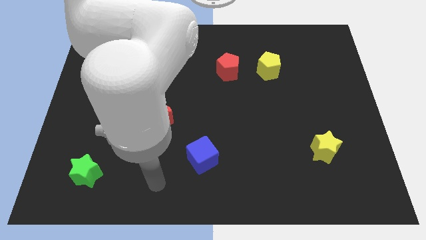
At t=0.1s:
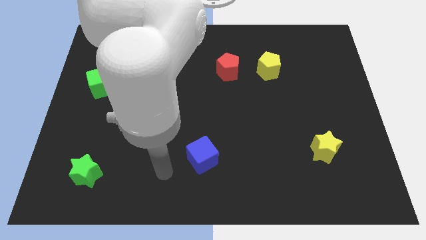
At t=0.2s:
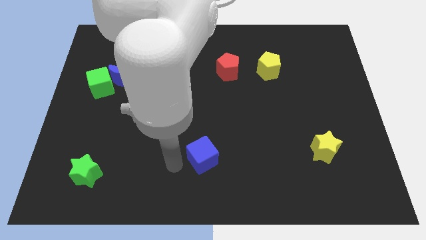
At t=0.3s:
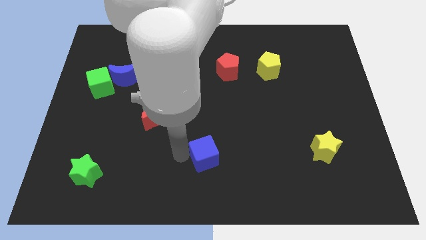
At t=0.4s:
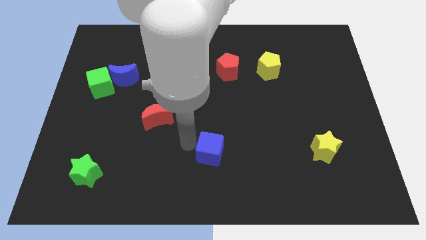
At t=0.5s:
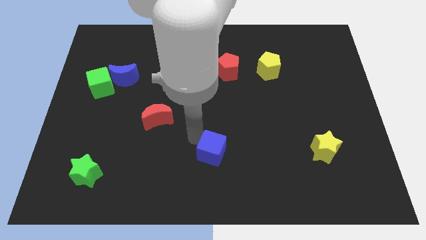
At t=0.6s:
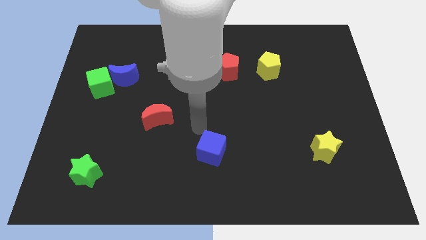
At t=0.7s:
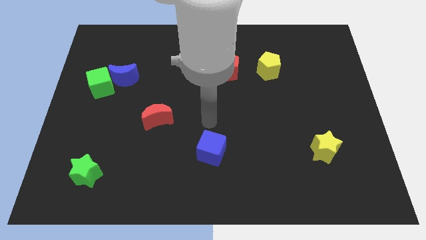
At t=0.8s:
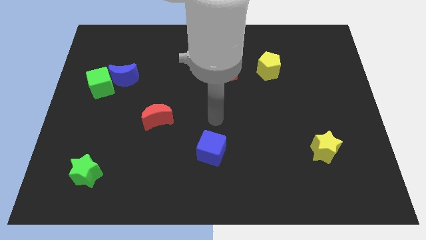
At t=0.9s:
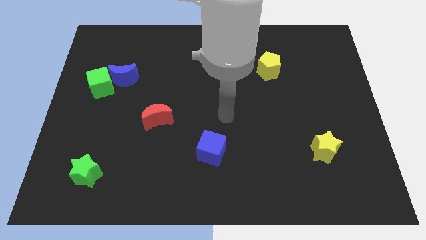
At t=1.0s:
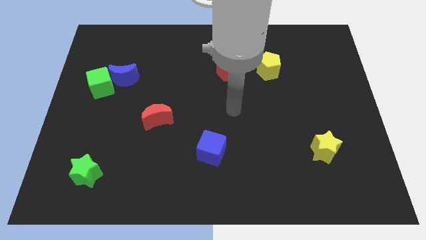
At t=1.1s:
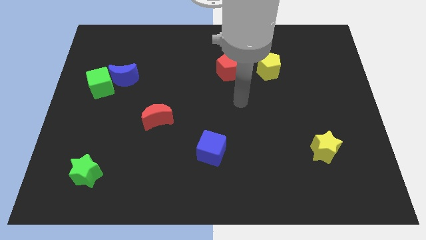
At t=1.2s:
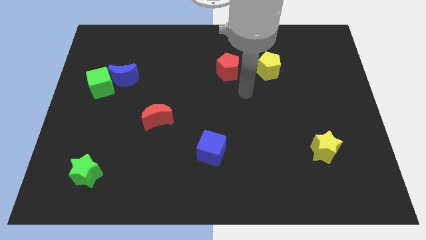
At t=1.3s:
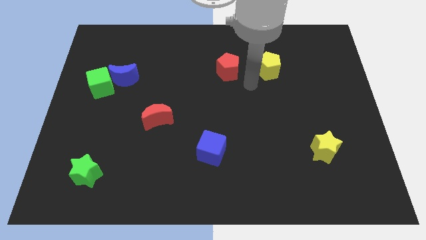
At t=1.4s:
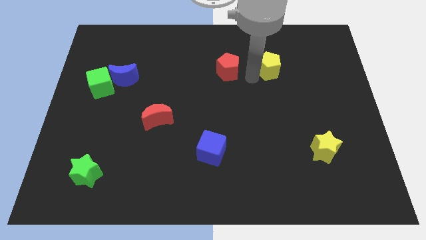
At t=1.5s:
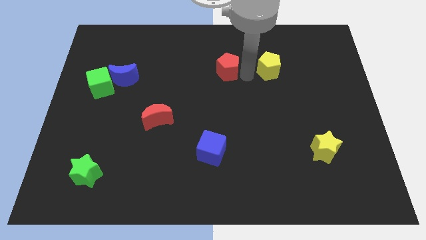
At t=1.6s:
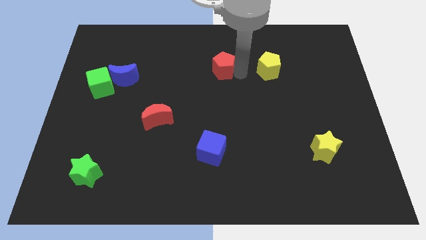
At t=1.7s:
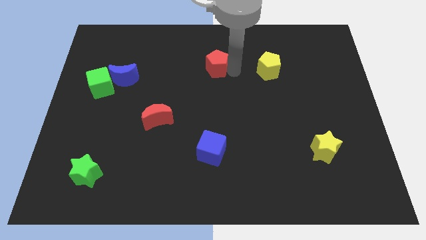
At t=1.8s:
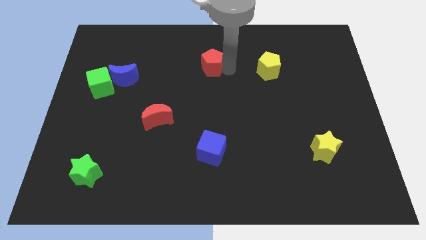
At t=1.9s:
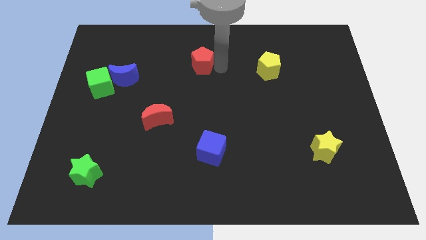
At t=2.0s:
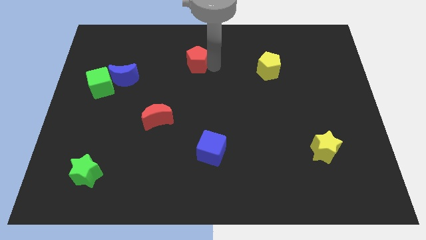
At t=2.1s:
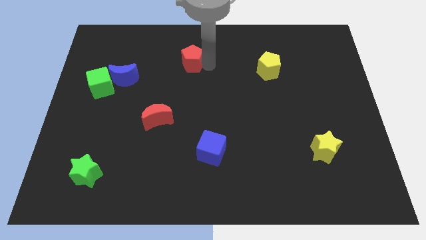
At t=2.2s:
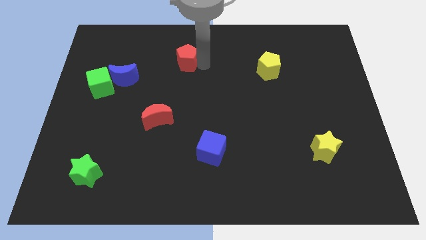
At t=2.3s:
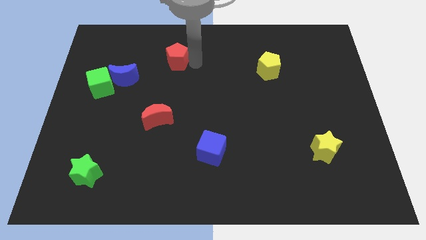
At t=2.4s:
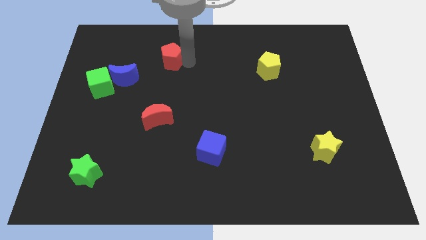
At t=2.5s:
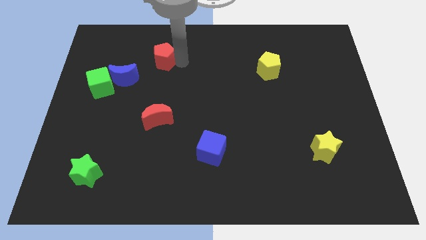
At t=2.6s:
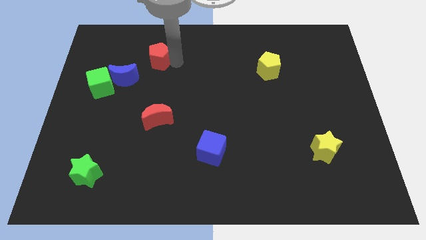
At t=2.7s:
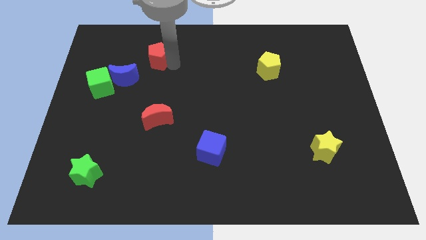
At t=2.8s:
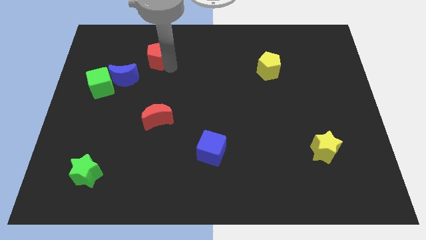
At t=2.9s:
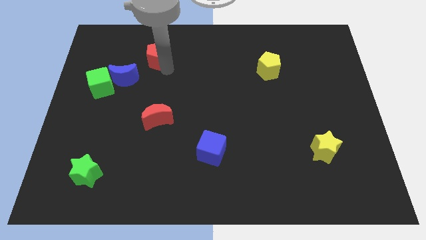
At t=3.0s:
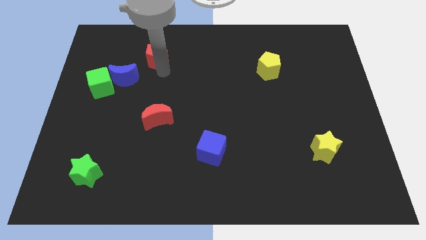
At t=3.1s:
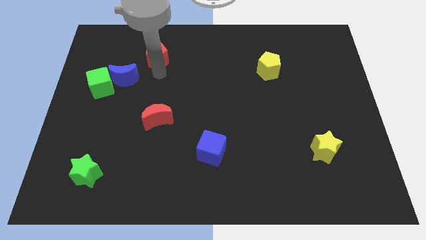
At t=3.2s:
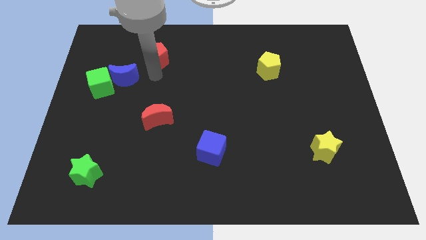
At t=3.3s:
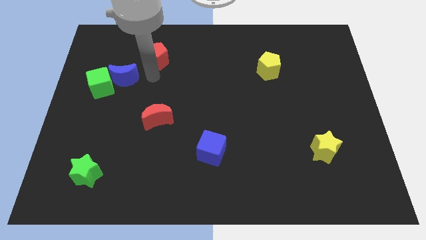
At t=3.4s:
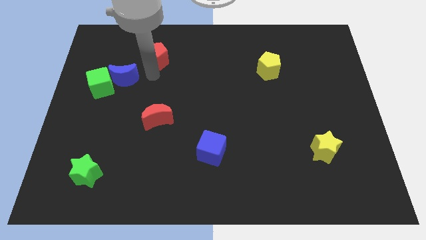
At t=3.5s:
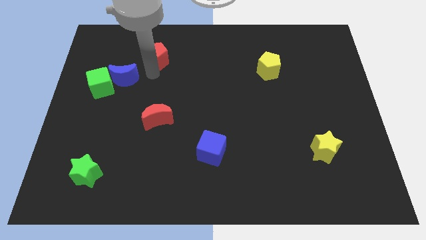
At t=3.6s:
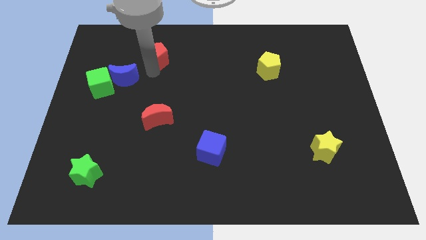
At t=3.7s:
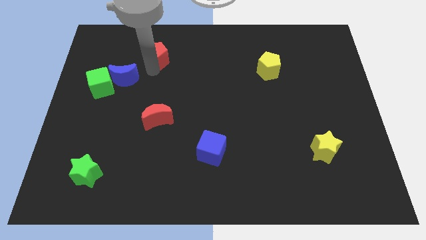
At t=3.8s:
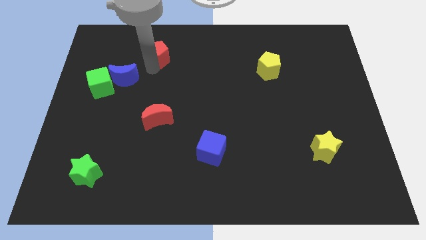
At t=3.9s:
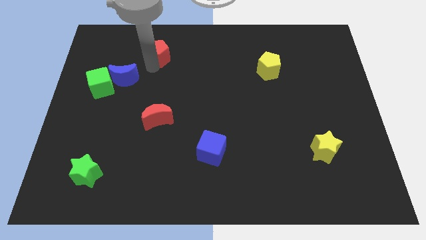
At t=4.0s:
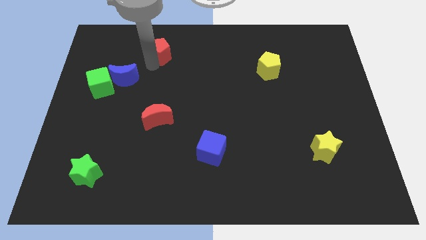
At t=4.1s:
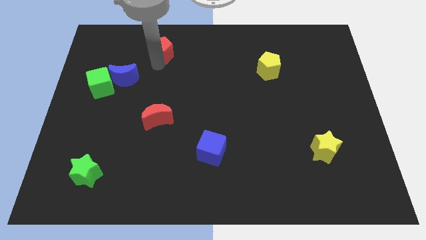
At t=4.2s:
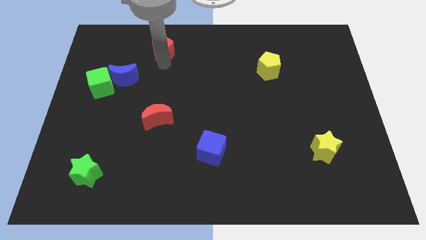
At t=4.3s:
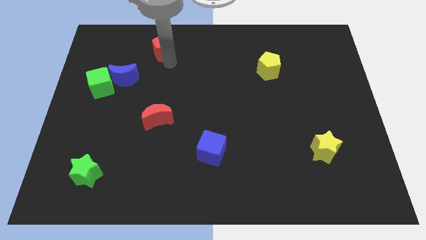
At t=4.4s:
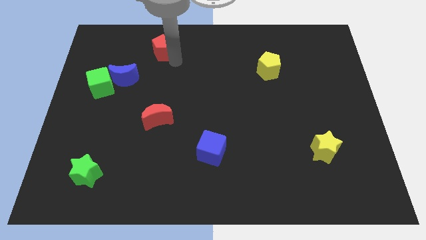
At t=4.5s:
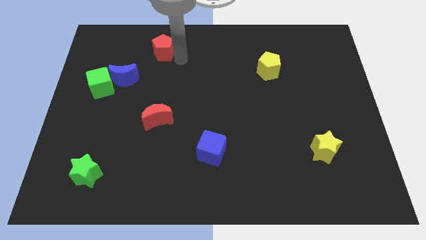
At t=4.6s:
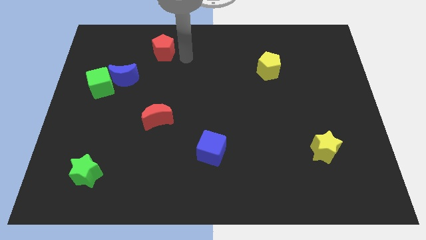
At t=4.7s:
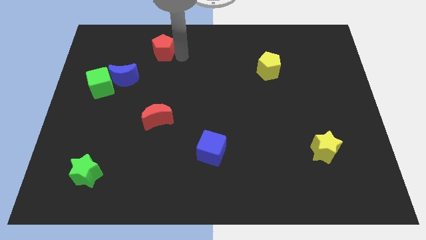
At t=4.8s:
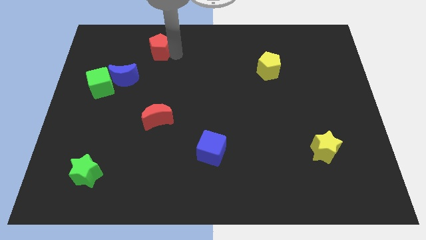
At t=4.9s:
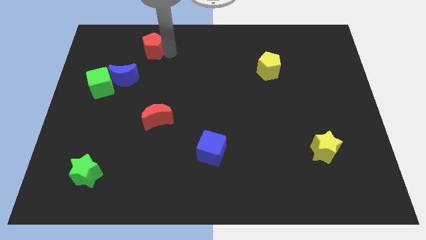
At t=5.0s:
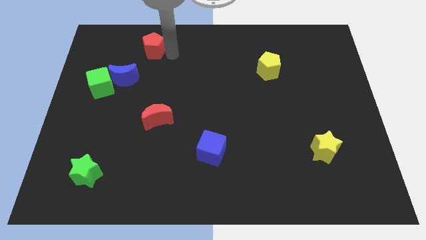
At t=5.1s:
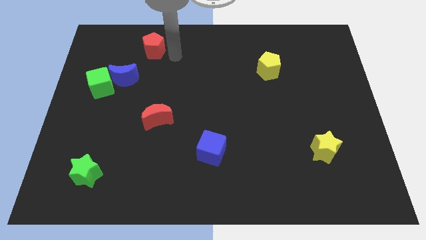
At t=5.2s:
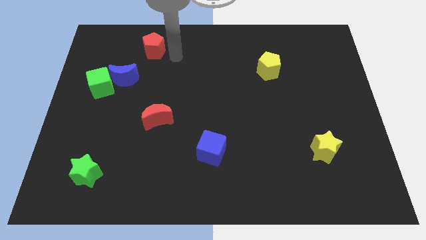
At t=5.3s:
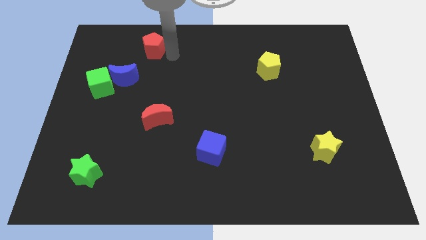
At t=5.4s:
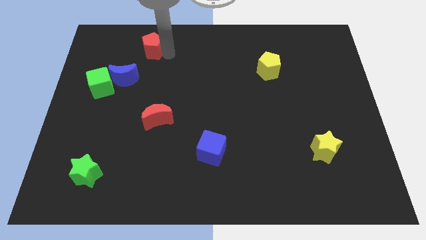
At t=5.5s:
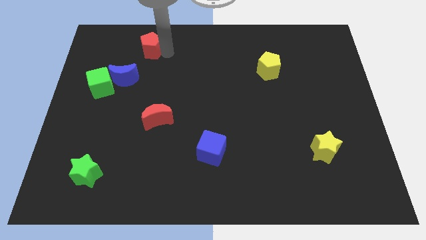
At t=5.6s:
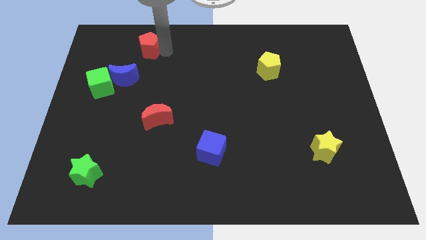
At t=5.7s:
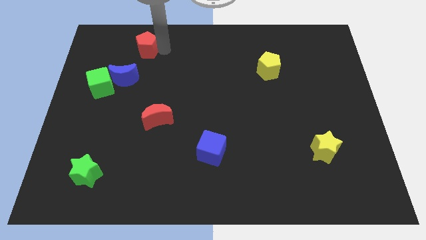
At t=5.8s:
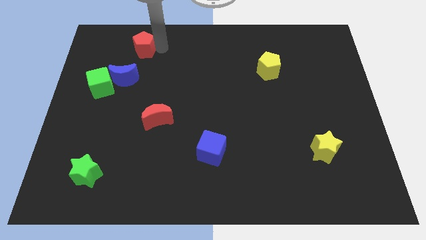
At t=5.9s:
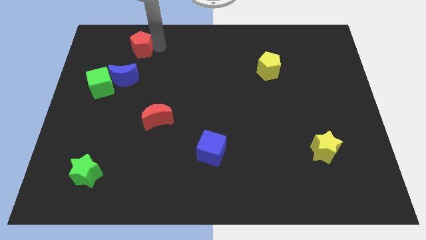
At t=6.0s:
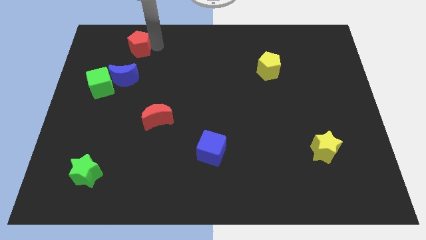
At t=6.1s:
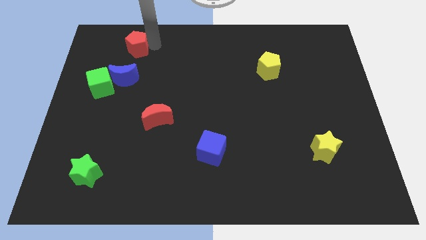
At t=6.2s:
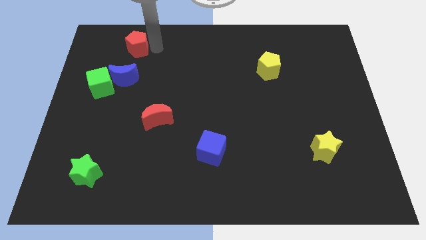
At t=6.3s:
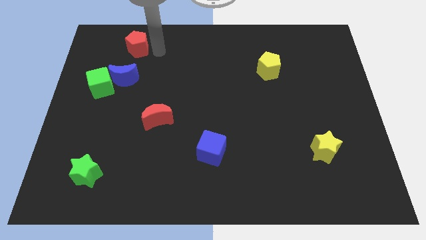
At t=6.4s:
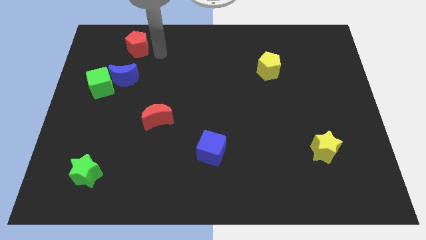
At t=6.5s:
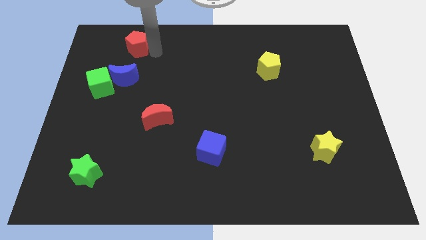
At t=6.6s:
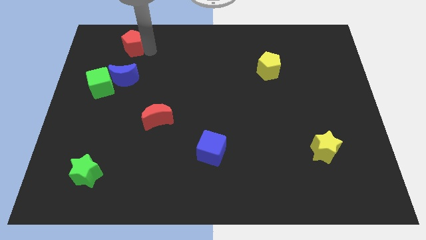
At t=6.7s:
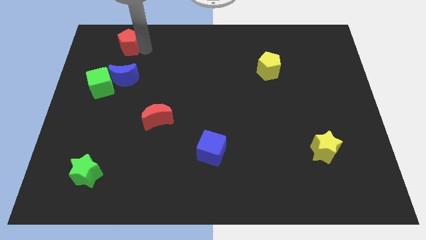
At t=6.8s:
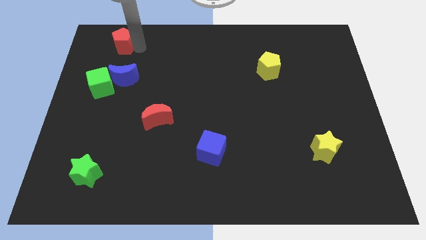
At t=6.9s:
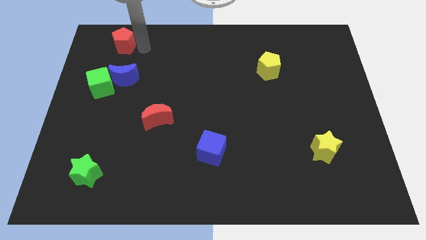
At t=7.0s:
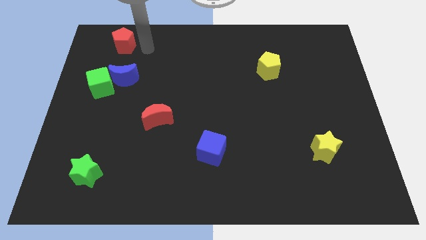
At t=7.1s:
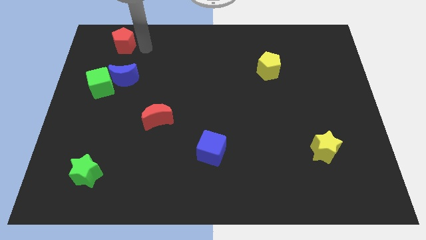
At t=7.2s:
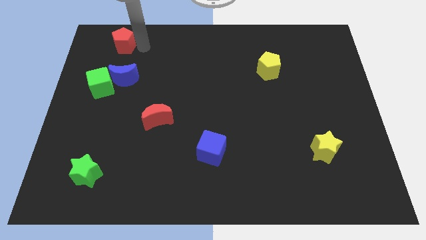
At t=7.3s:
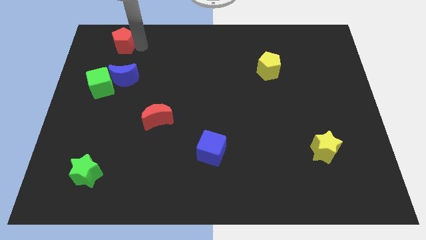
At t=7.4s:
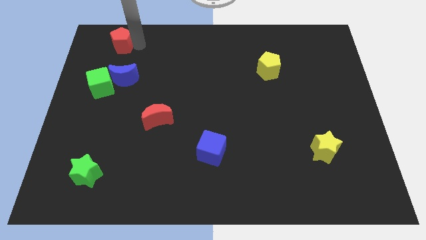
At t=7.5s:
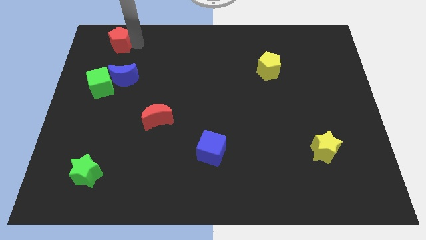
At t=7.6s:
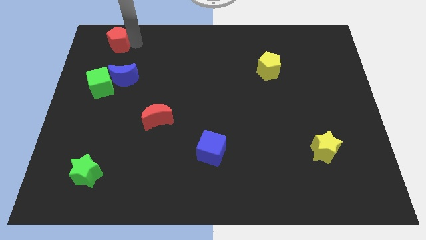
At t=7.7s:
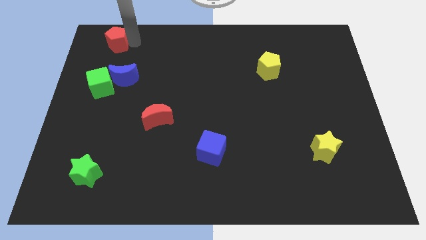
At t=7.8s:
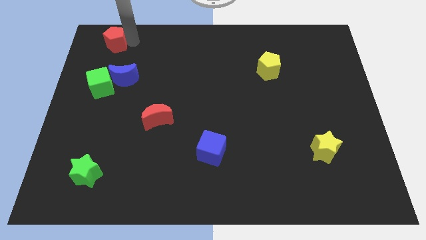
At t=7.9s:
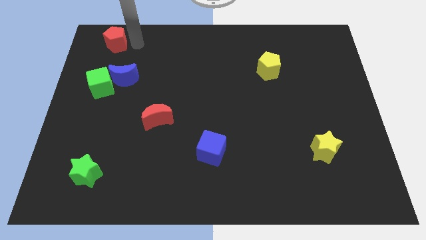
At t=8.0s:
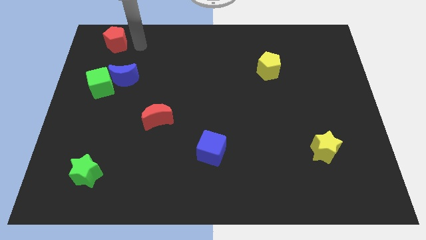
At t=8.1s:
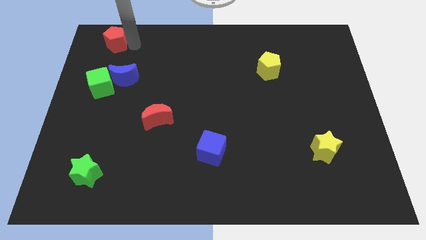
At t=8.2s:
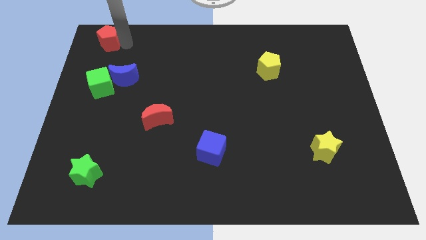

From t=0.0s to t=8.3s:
slide the red pentagon to the top left of the board
